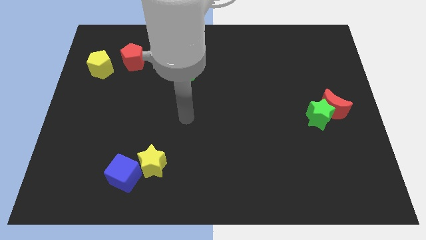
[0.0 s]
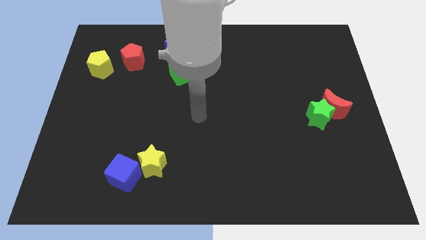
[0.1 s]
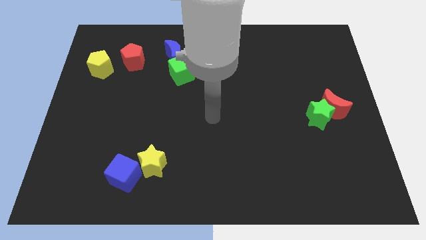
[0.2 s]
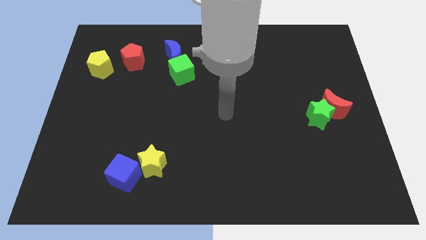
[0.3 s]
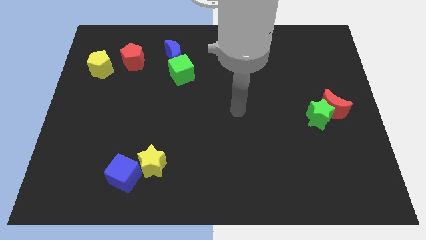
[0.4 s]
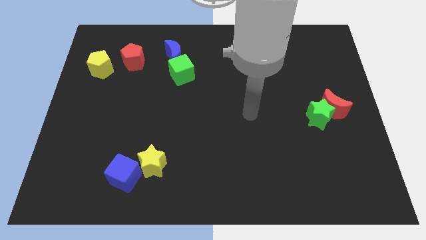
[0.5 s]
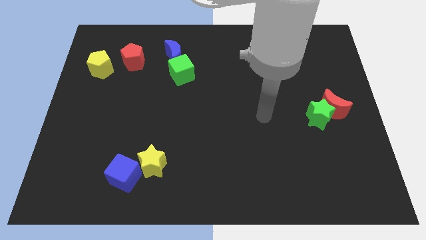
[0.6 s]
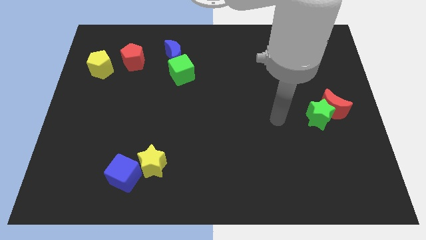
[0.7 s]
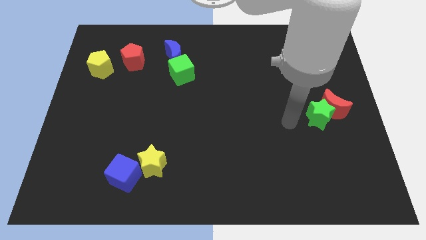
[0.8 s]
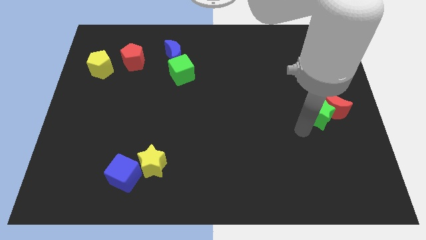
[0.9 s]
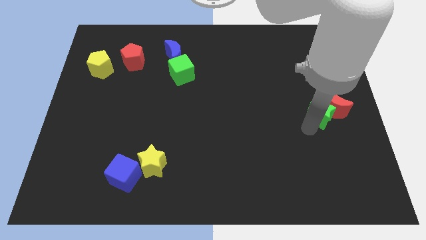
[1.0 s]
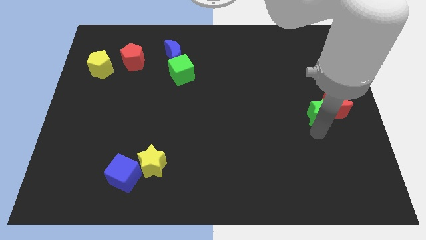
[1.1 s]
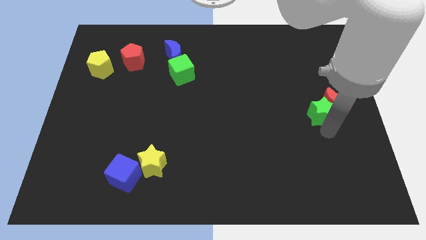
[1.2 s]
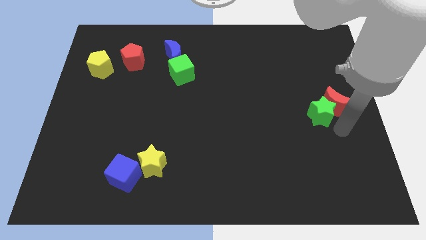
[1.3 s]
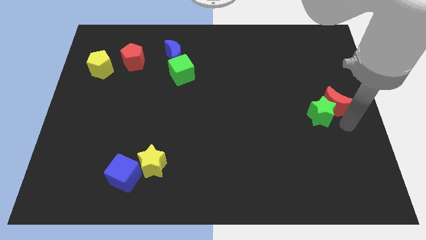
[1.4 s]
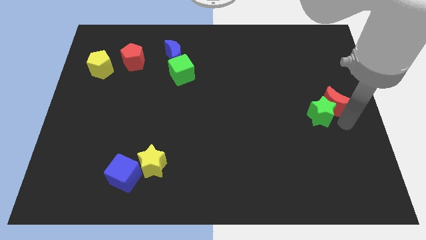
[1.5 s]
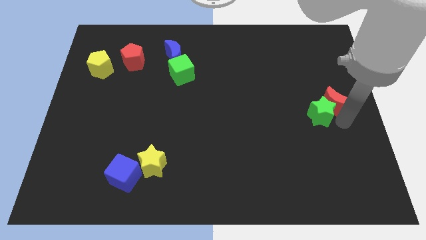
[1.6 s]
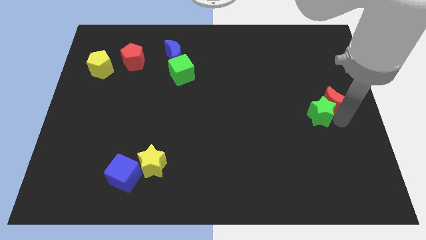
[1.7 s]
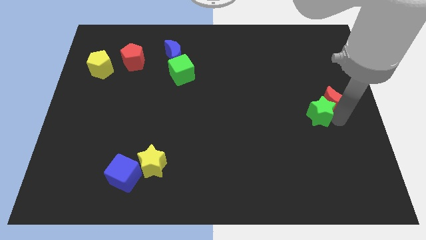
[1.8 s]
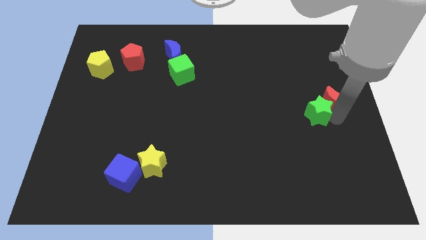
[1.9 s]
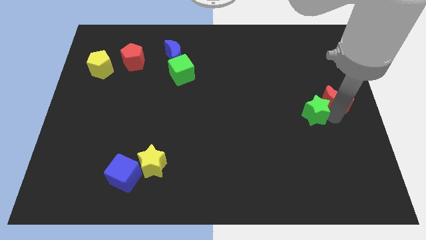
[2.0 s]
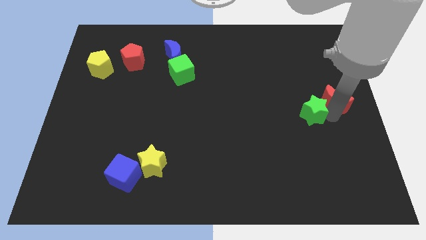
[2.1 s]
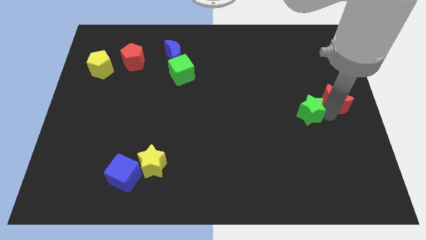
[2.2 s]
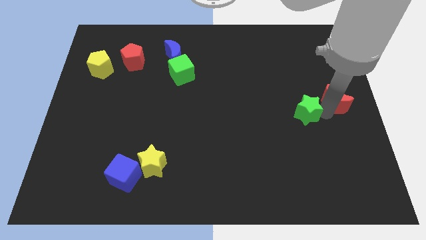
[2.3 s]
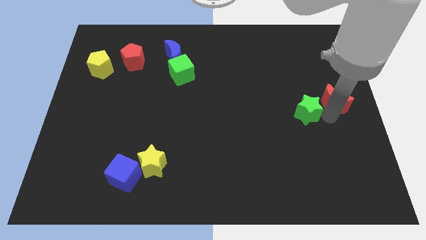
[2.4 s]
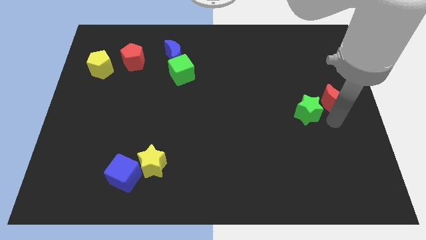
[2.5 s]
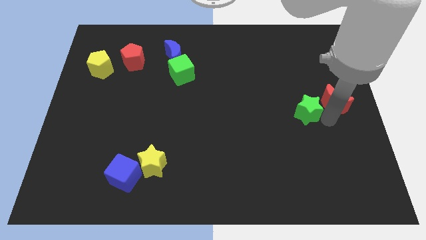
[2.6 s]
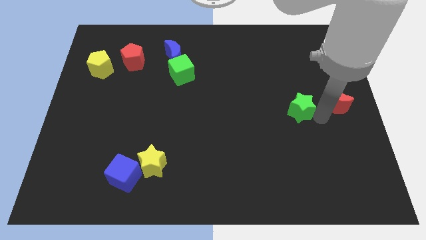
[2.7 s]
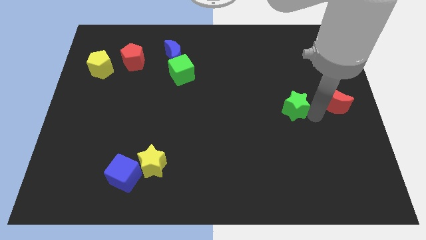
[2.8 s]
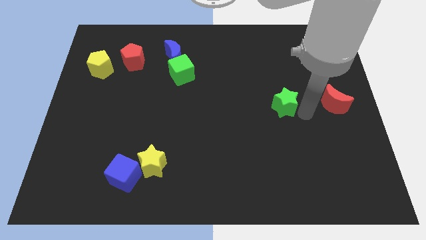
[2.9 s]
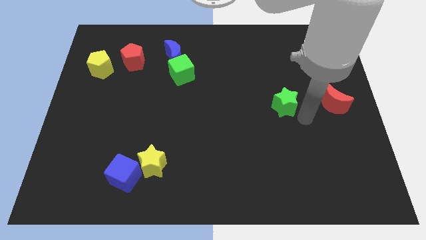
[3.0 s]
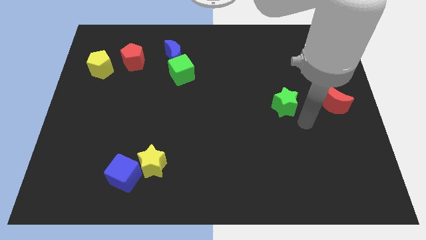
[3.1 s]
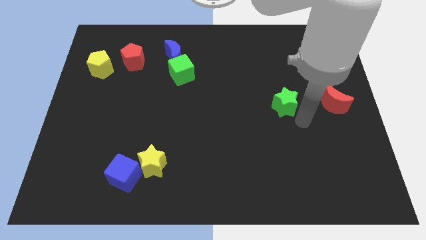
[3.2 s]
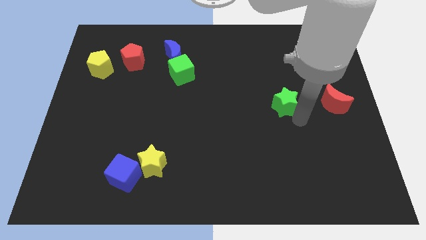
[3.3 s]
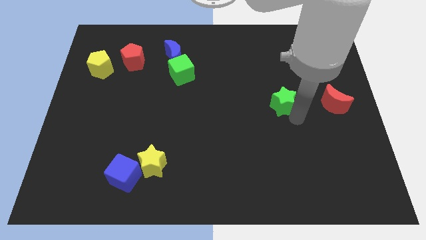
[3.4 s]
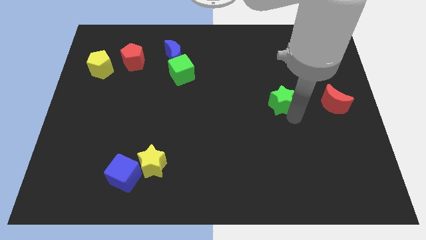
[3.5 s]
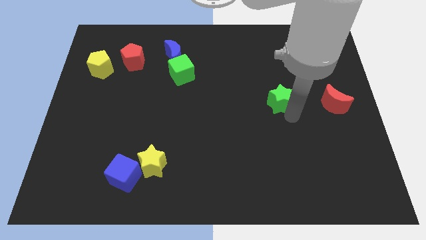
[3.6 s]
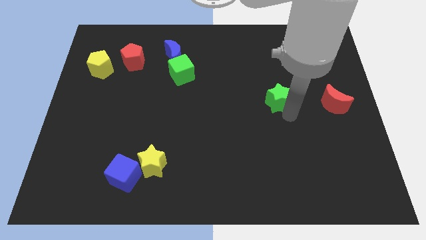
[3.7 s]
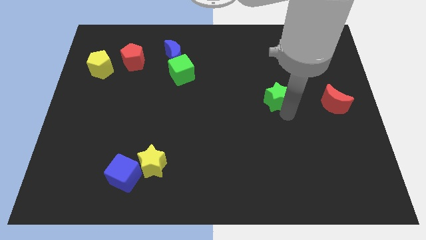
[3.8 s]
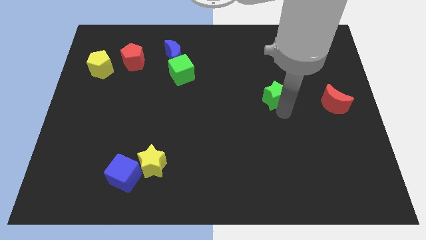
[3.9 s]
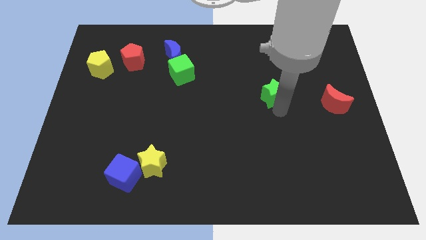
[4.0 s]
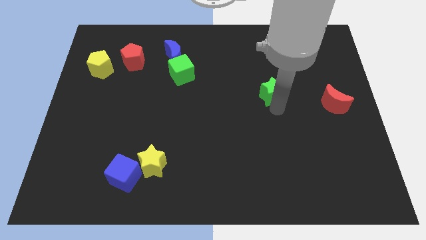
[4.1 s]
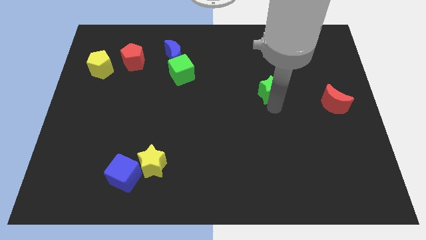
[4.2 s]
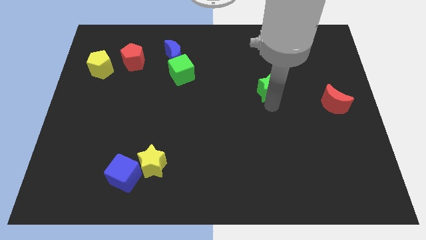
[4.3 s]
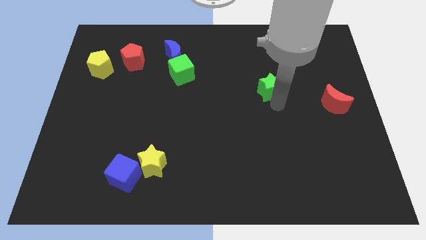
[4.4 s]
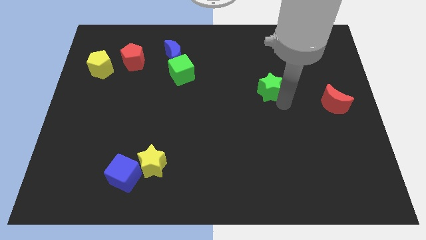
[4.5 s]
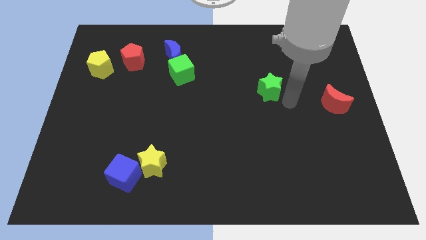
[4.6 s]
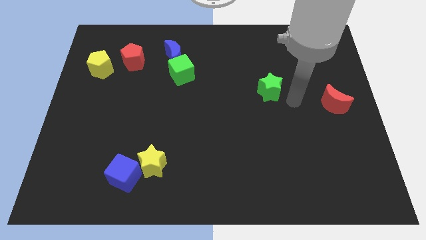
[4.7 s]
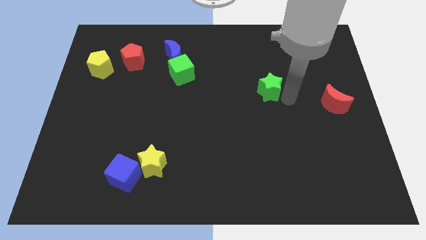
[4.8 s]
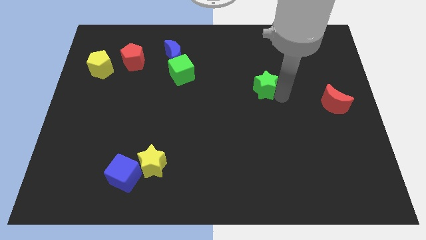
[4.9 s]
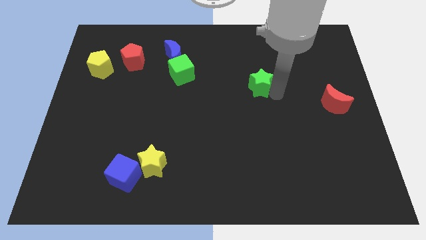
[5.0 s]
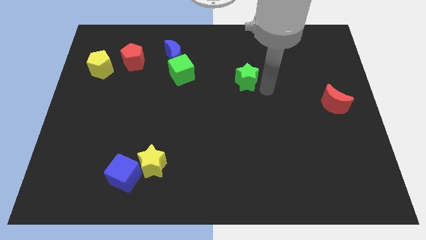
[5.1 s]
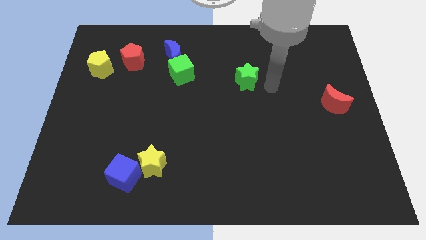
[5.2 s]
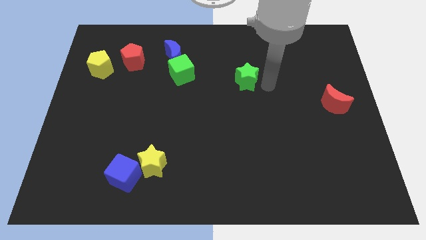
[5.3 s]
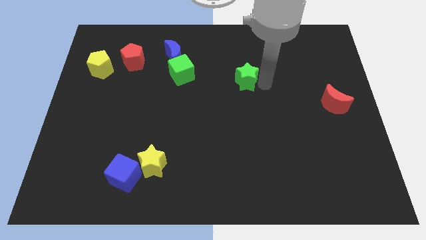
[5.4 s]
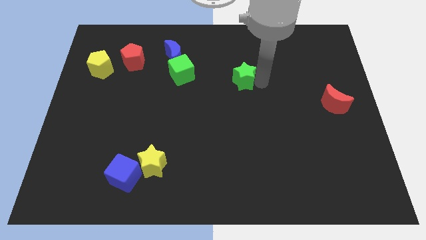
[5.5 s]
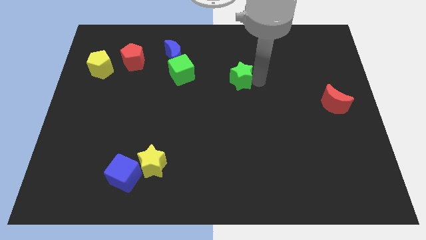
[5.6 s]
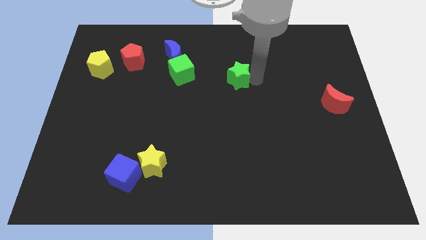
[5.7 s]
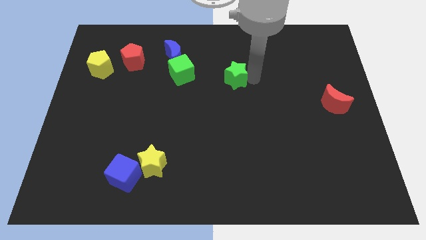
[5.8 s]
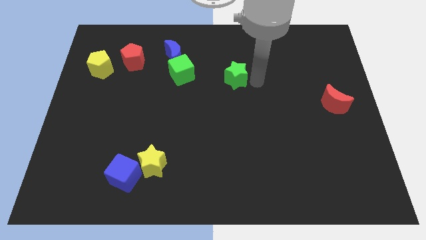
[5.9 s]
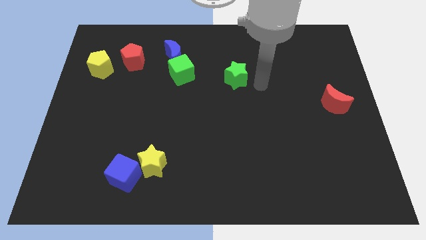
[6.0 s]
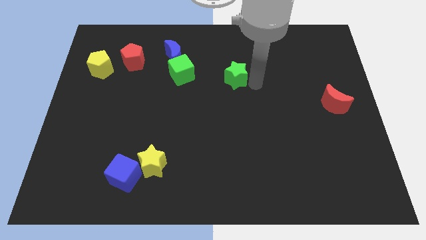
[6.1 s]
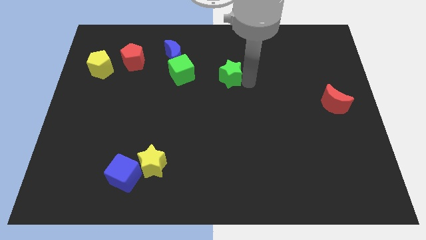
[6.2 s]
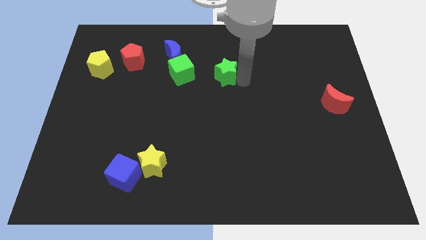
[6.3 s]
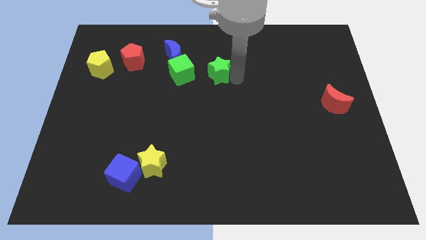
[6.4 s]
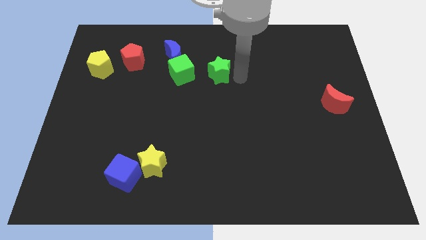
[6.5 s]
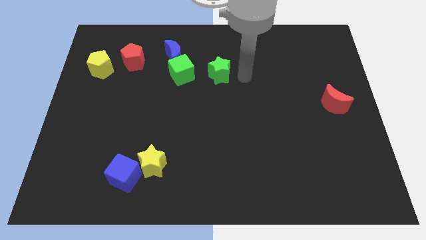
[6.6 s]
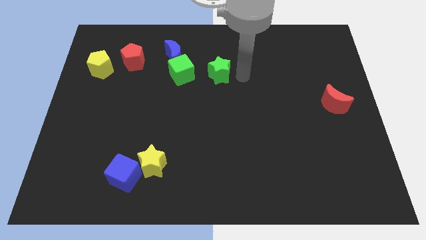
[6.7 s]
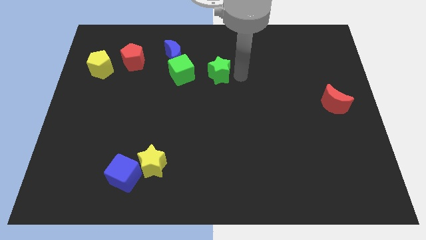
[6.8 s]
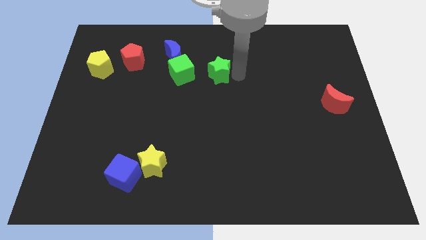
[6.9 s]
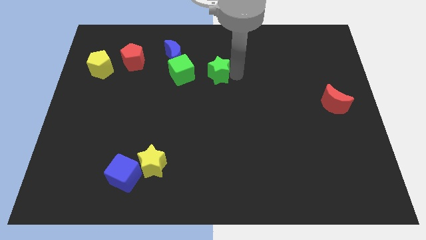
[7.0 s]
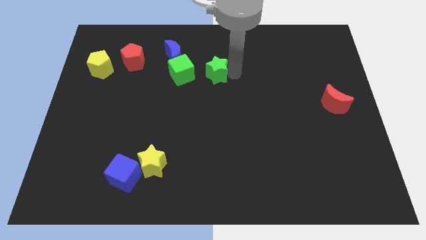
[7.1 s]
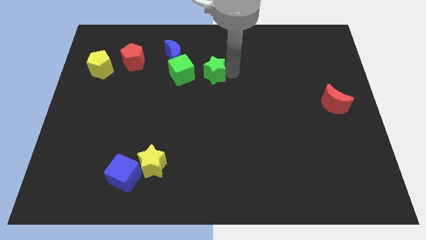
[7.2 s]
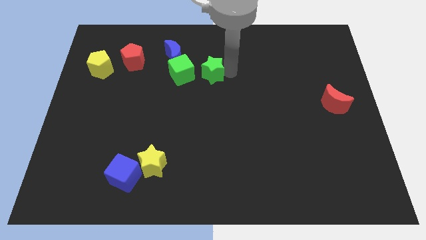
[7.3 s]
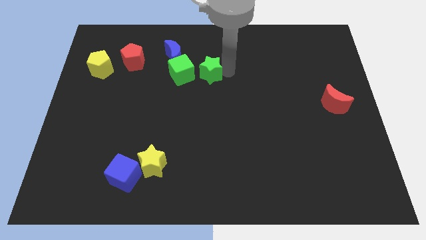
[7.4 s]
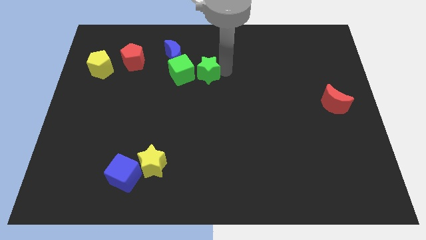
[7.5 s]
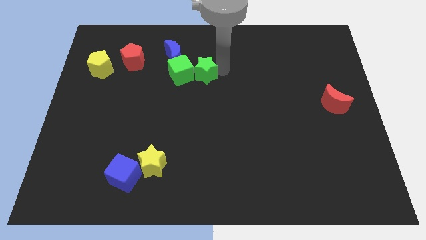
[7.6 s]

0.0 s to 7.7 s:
move the green star towards the green cube
